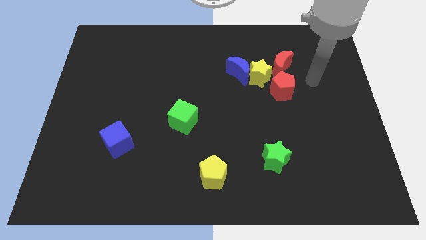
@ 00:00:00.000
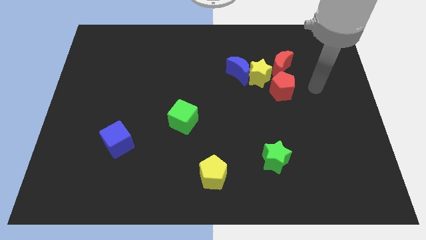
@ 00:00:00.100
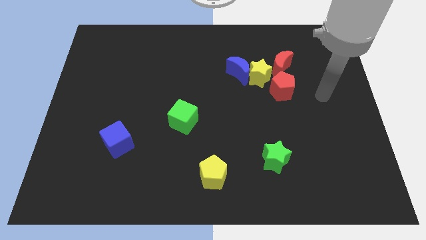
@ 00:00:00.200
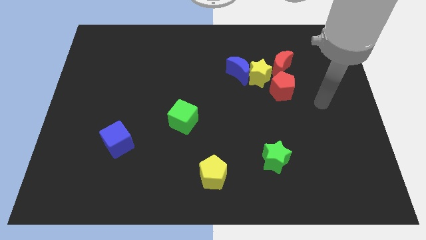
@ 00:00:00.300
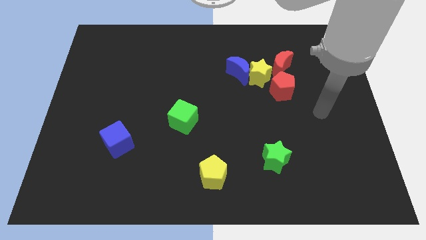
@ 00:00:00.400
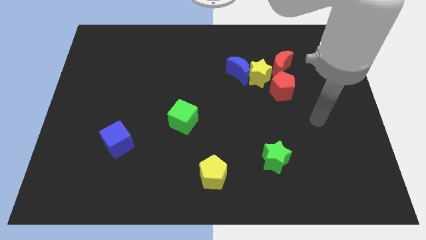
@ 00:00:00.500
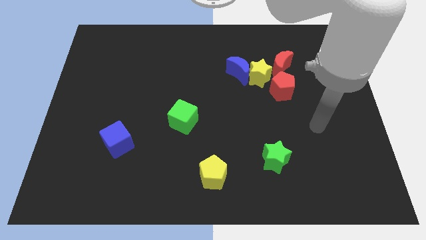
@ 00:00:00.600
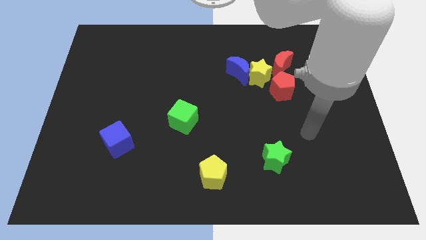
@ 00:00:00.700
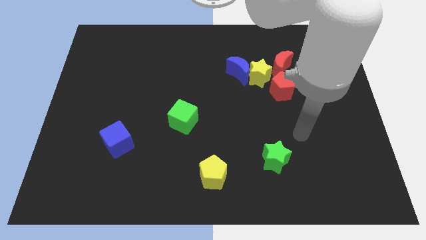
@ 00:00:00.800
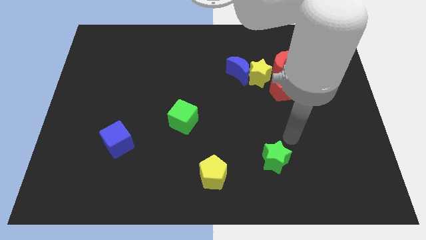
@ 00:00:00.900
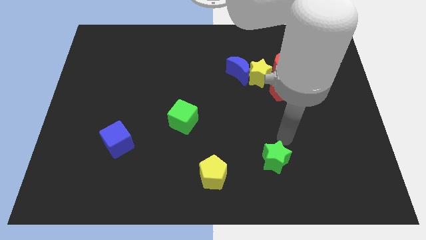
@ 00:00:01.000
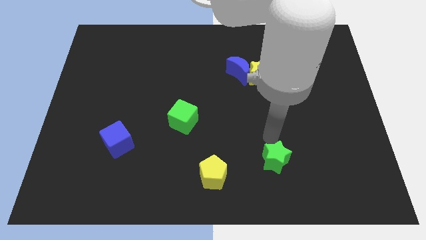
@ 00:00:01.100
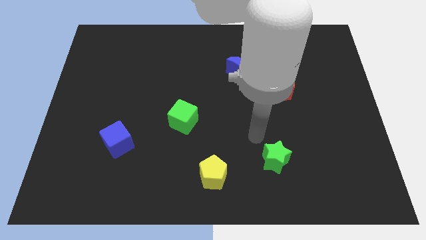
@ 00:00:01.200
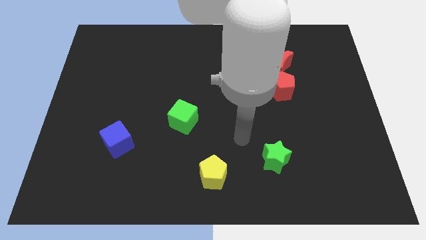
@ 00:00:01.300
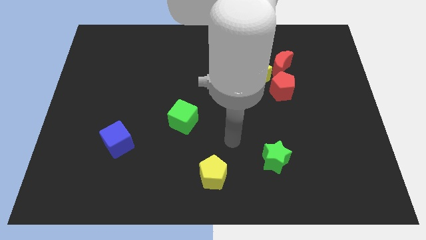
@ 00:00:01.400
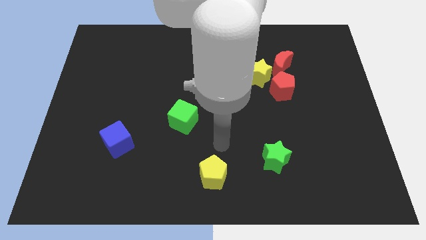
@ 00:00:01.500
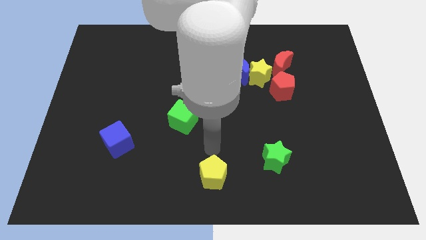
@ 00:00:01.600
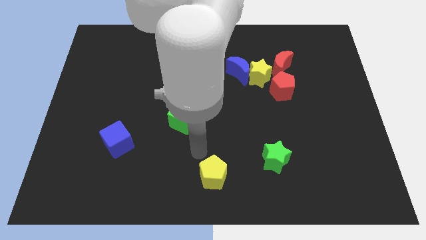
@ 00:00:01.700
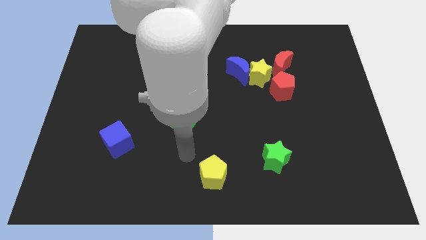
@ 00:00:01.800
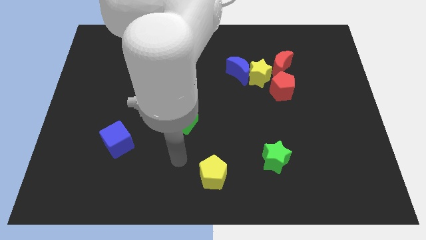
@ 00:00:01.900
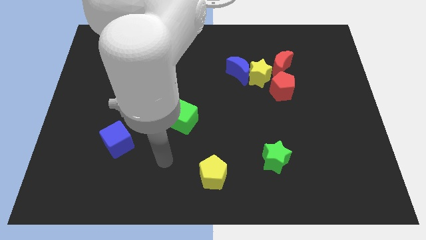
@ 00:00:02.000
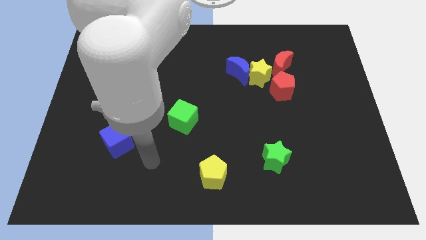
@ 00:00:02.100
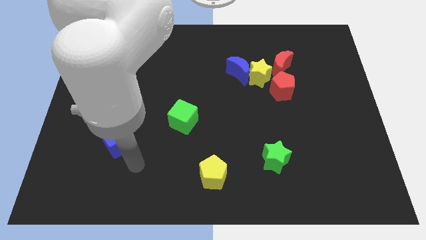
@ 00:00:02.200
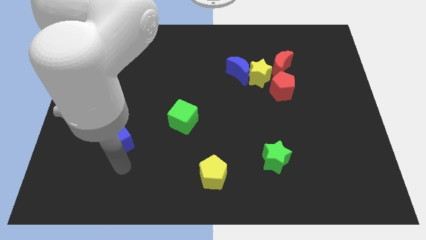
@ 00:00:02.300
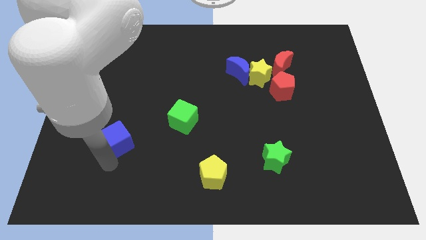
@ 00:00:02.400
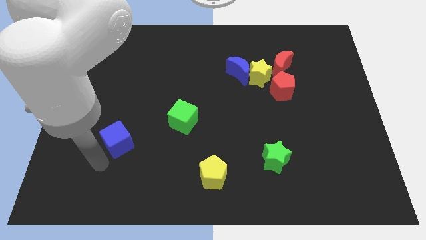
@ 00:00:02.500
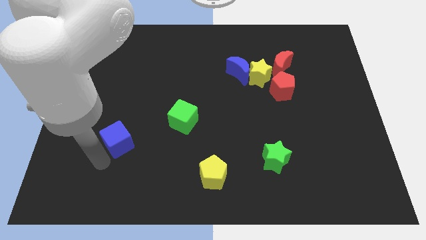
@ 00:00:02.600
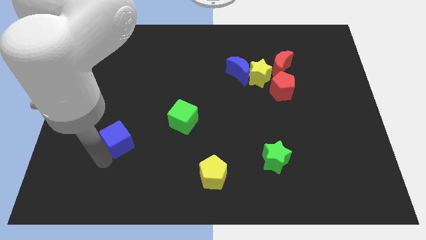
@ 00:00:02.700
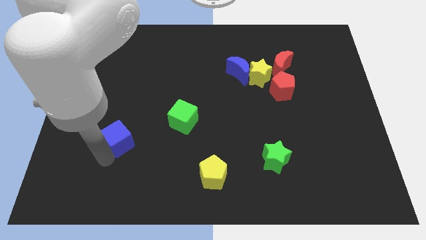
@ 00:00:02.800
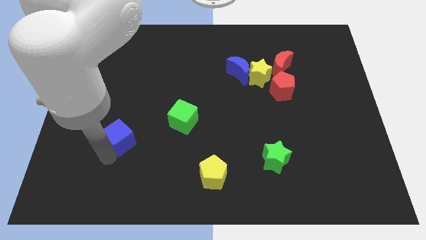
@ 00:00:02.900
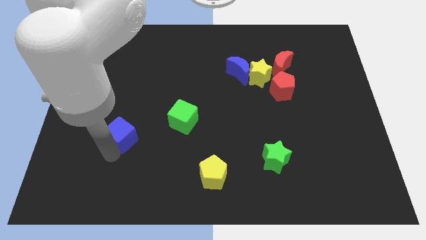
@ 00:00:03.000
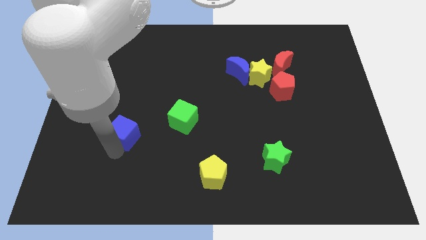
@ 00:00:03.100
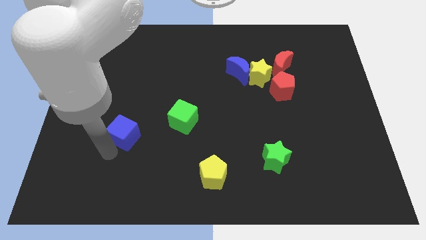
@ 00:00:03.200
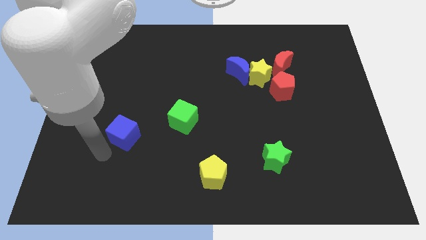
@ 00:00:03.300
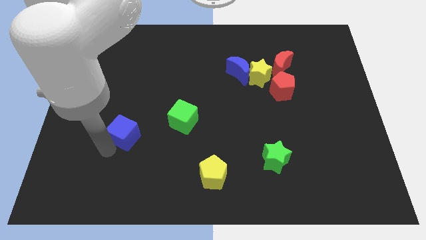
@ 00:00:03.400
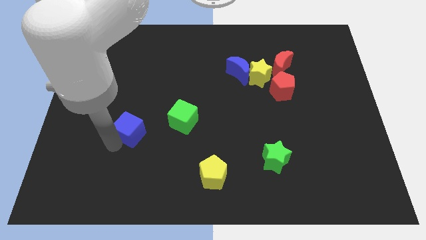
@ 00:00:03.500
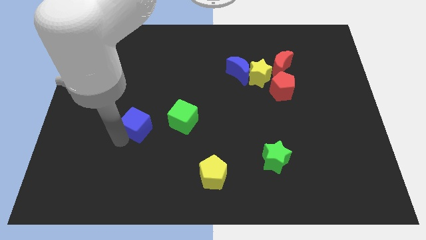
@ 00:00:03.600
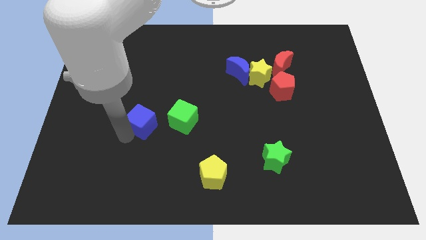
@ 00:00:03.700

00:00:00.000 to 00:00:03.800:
slightly move the blue cube upwards and right

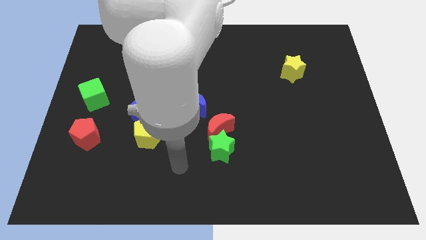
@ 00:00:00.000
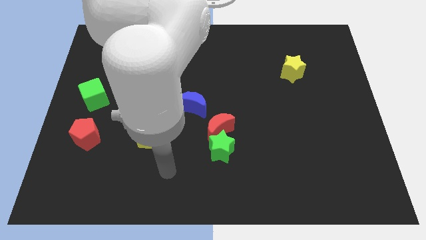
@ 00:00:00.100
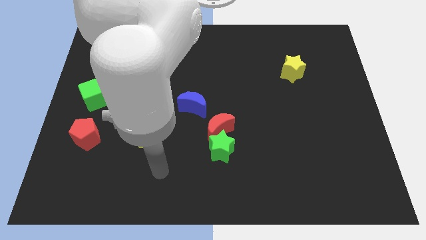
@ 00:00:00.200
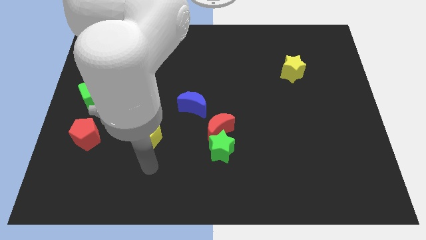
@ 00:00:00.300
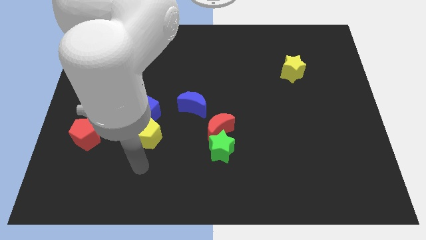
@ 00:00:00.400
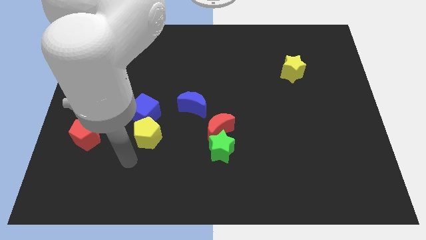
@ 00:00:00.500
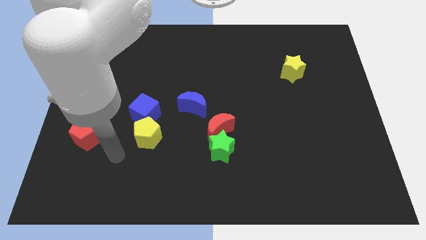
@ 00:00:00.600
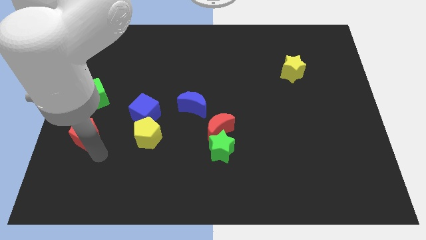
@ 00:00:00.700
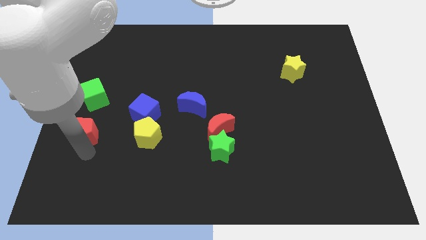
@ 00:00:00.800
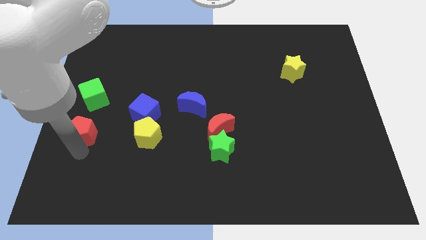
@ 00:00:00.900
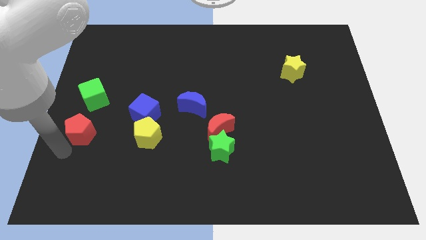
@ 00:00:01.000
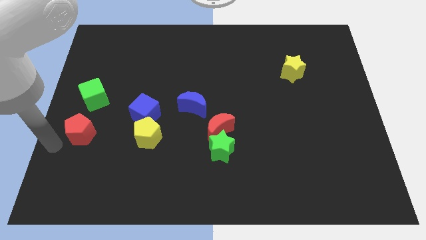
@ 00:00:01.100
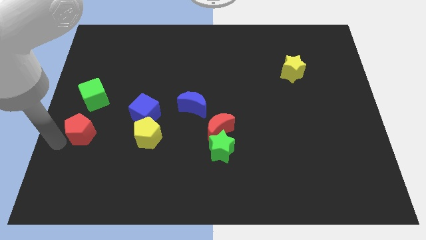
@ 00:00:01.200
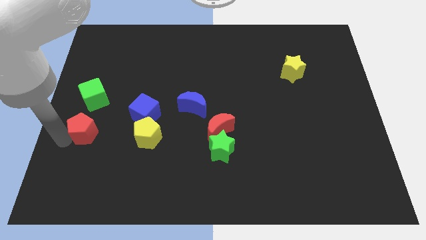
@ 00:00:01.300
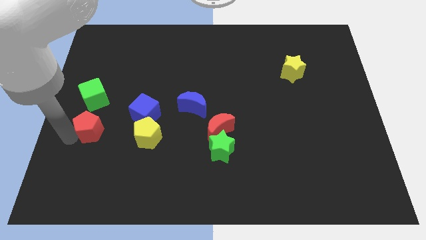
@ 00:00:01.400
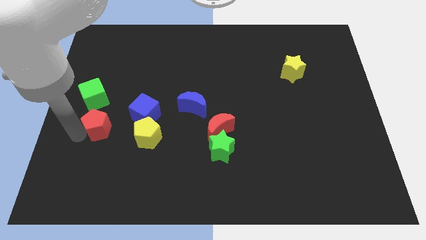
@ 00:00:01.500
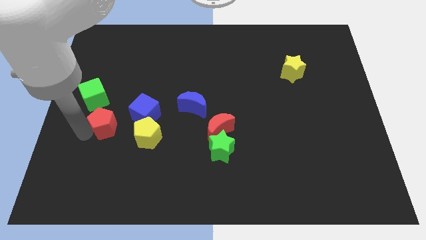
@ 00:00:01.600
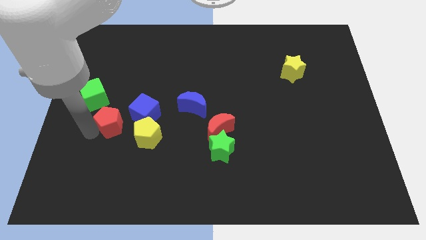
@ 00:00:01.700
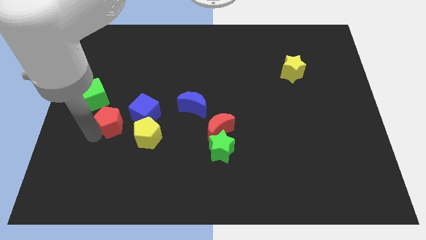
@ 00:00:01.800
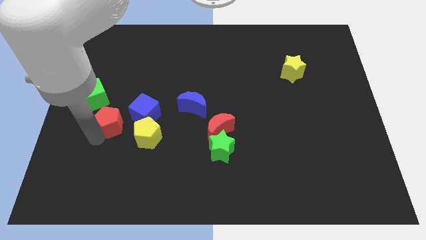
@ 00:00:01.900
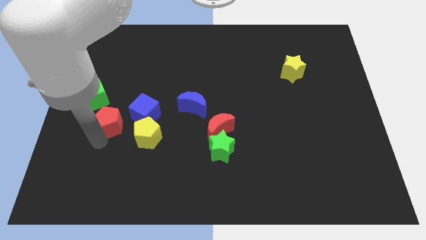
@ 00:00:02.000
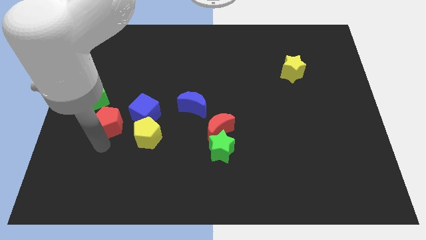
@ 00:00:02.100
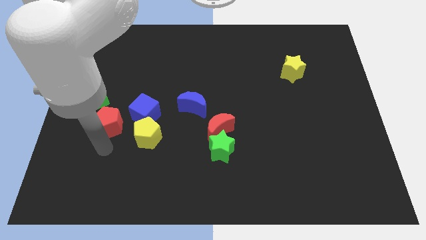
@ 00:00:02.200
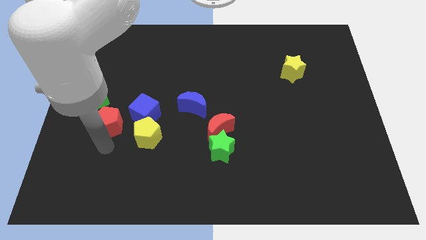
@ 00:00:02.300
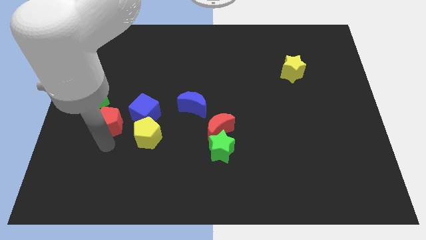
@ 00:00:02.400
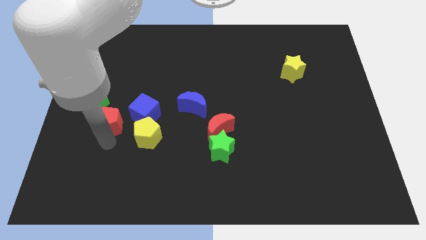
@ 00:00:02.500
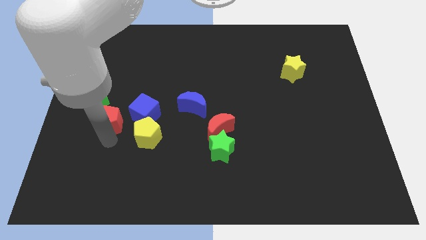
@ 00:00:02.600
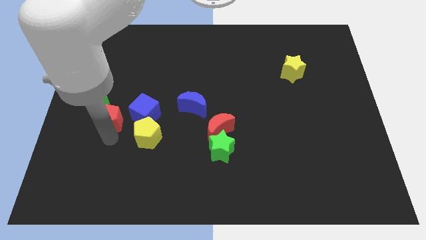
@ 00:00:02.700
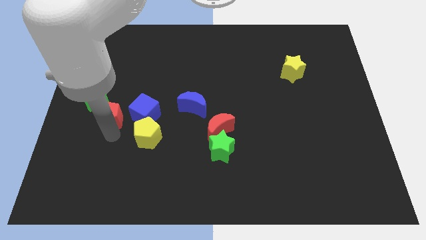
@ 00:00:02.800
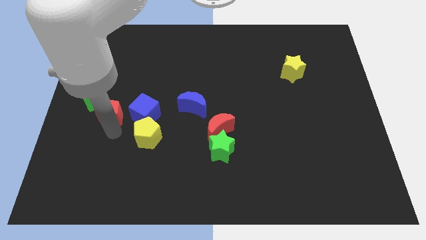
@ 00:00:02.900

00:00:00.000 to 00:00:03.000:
slightly push the red pentagon diagonally upwards and right

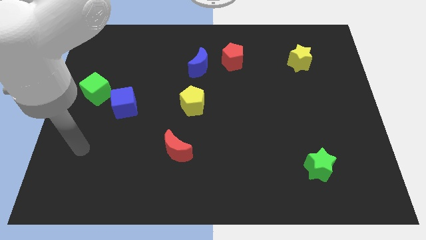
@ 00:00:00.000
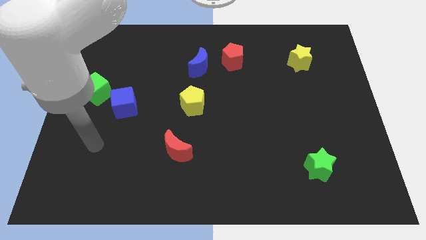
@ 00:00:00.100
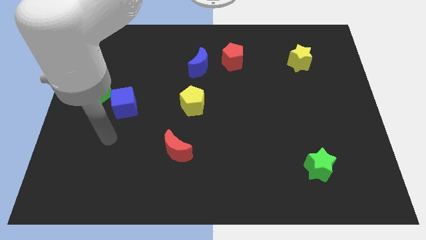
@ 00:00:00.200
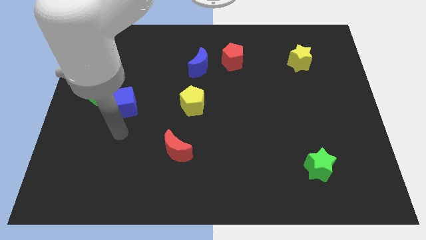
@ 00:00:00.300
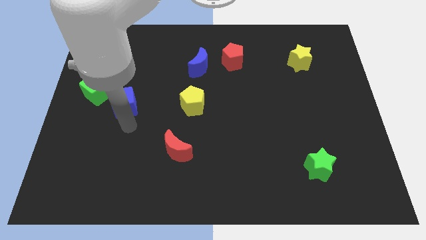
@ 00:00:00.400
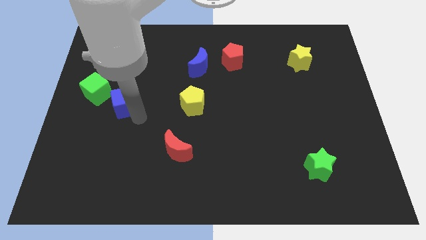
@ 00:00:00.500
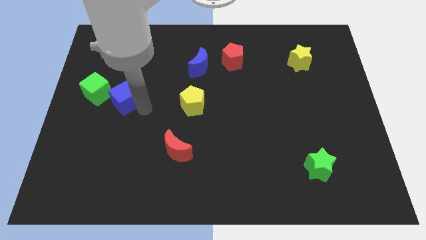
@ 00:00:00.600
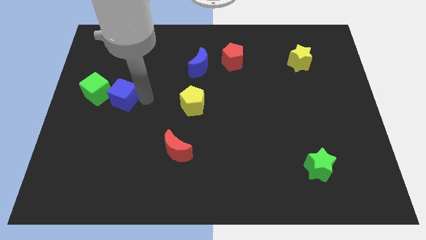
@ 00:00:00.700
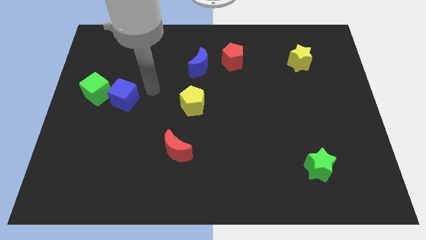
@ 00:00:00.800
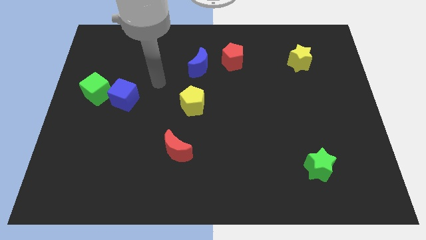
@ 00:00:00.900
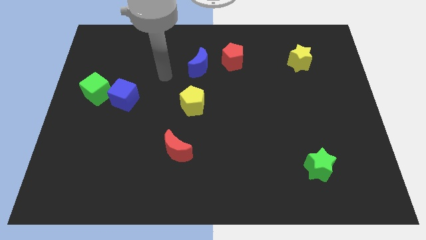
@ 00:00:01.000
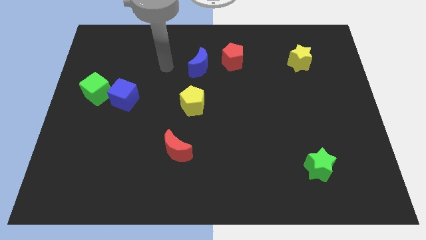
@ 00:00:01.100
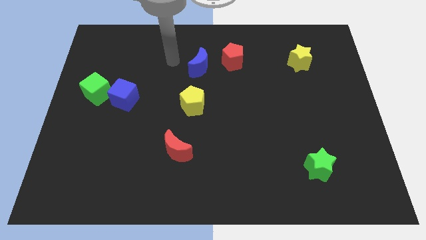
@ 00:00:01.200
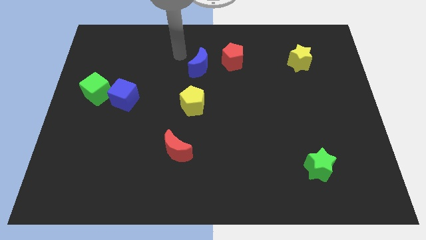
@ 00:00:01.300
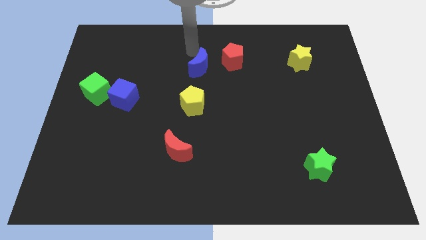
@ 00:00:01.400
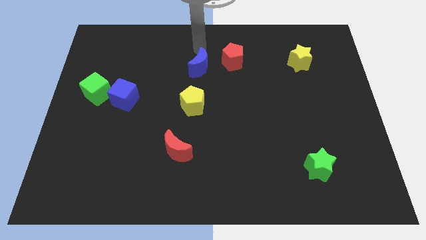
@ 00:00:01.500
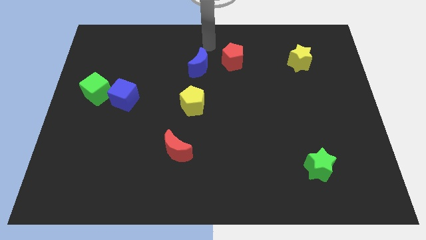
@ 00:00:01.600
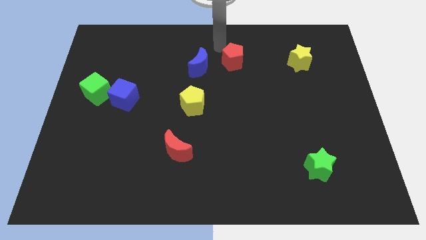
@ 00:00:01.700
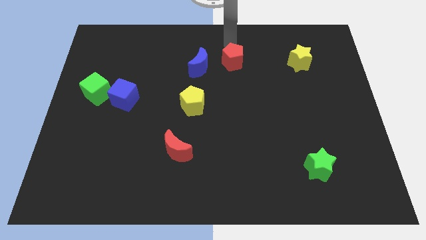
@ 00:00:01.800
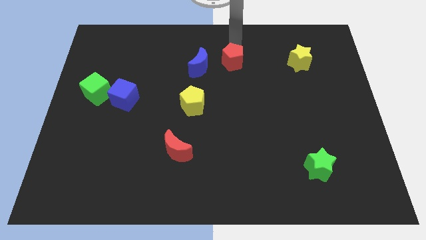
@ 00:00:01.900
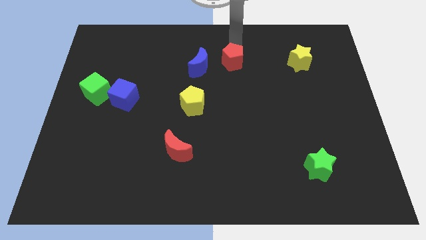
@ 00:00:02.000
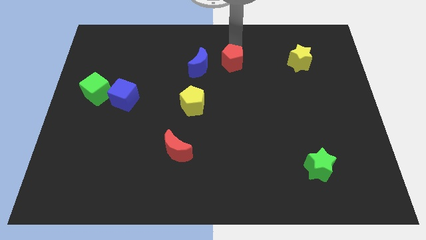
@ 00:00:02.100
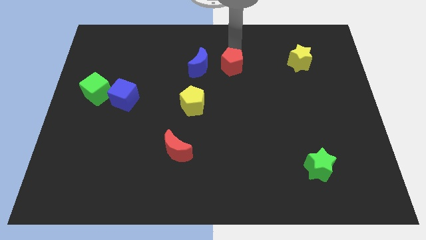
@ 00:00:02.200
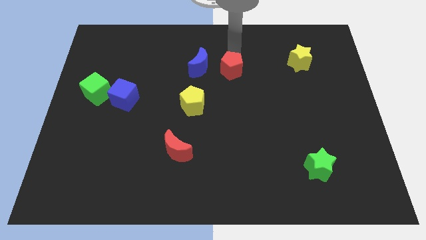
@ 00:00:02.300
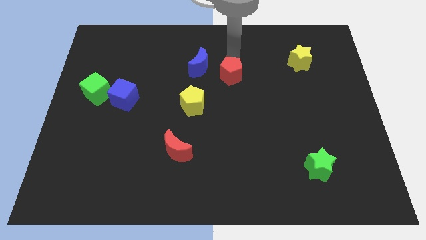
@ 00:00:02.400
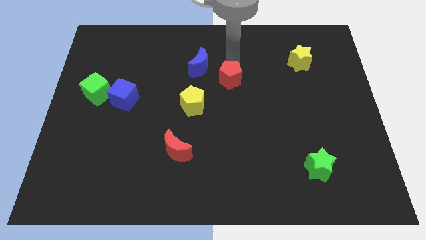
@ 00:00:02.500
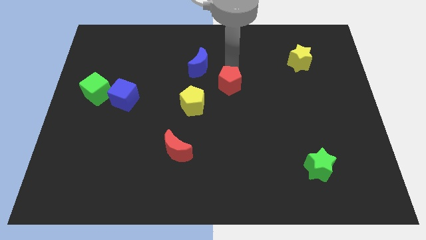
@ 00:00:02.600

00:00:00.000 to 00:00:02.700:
push the red pentagon a little down
